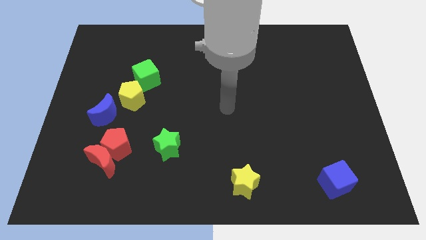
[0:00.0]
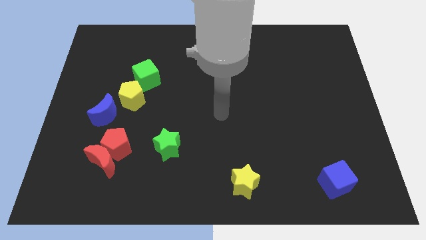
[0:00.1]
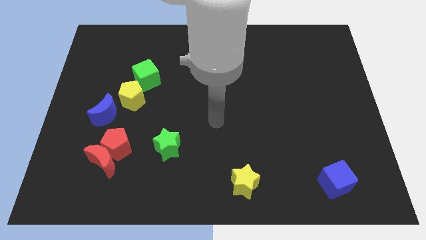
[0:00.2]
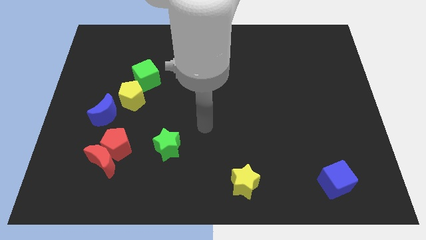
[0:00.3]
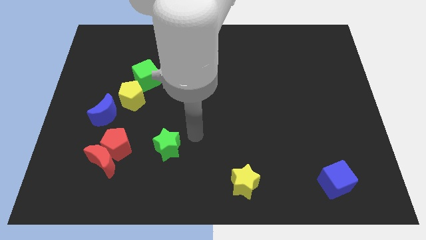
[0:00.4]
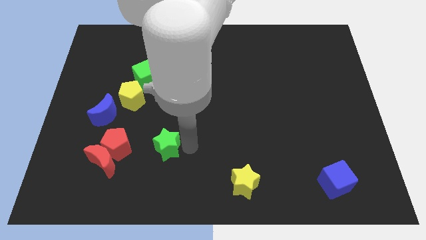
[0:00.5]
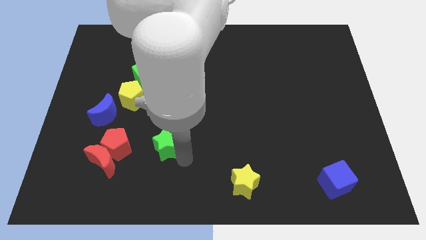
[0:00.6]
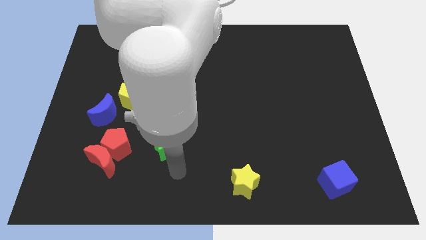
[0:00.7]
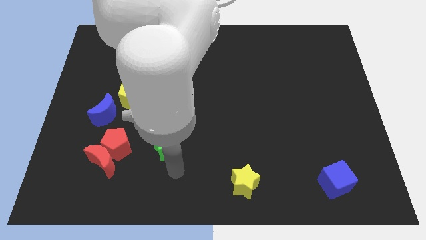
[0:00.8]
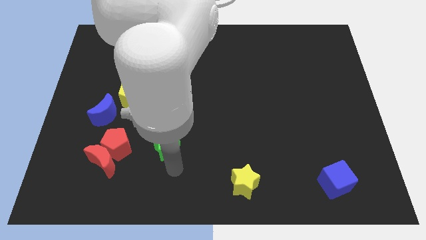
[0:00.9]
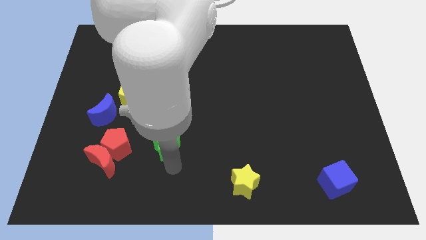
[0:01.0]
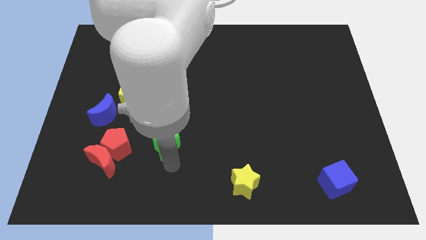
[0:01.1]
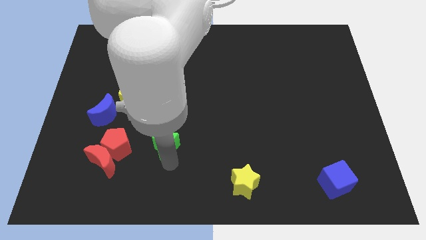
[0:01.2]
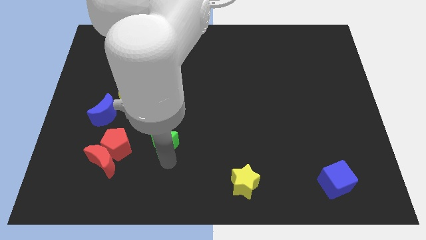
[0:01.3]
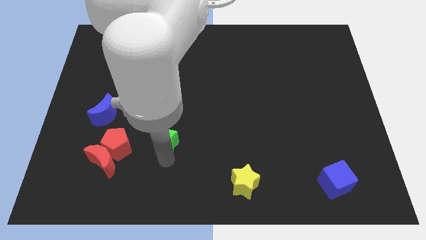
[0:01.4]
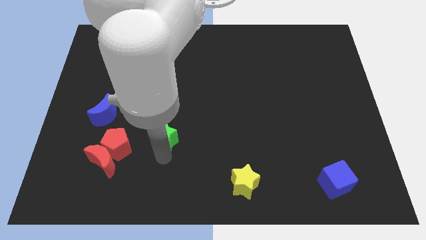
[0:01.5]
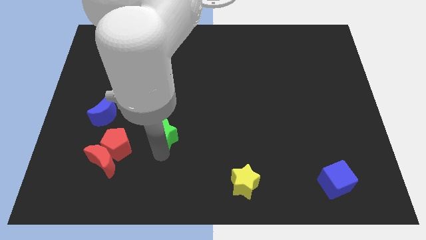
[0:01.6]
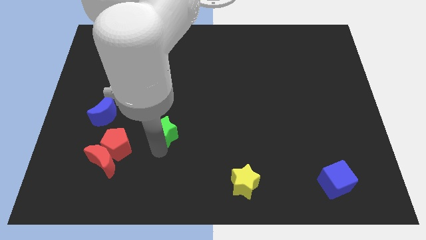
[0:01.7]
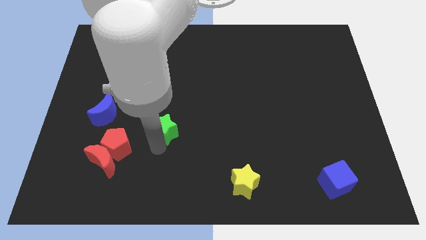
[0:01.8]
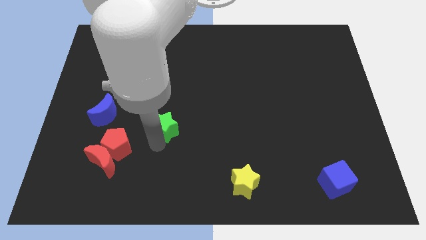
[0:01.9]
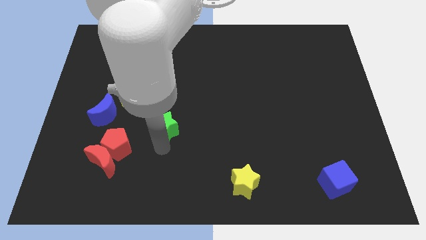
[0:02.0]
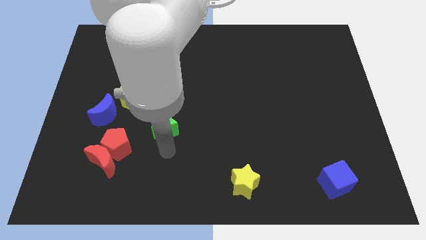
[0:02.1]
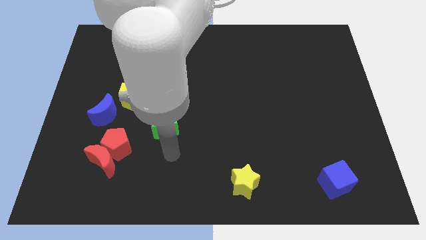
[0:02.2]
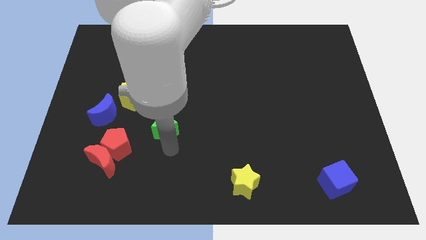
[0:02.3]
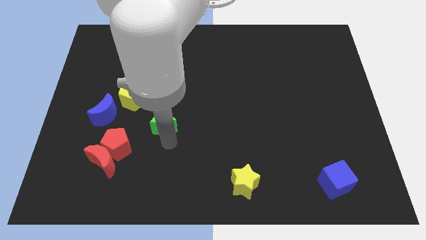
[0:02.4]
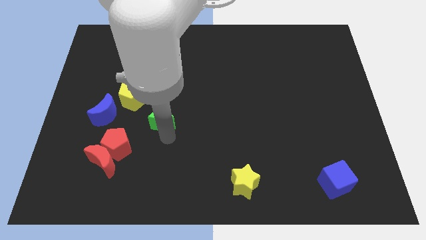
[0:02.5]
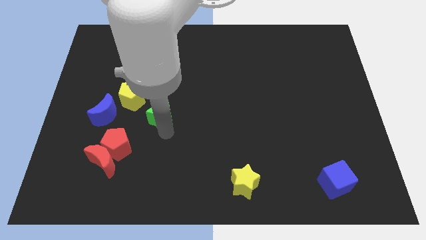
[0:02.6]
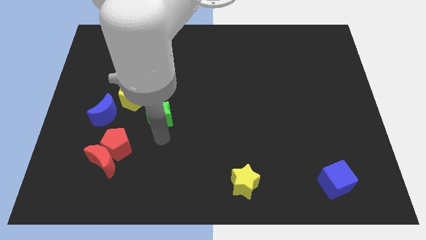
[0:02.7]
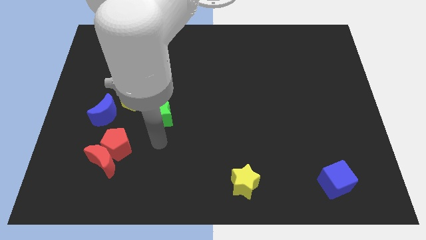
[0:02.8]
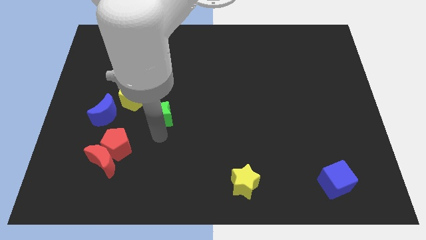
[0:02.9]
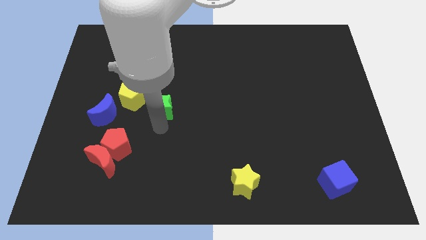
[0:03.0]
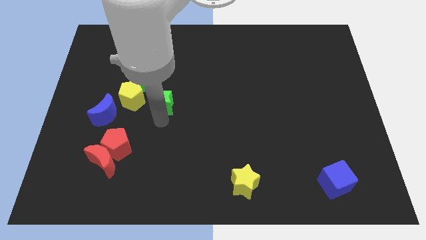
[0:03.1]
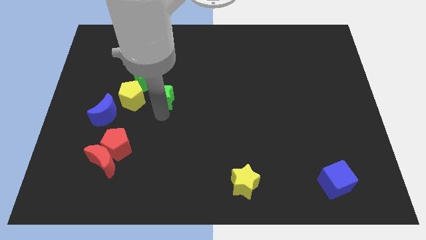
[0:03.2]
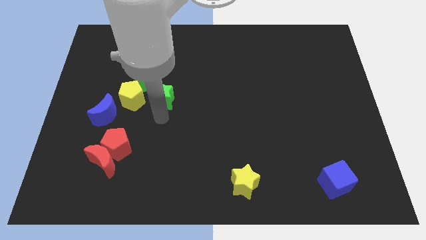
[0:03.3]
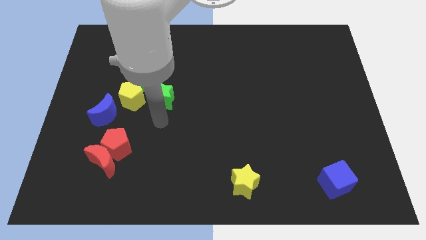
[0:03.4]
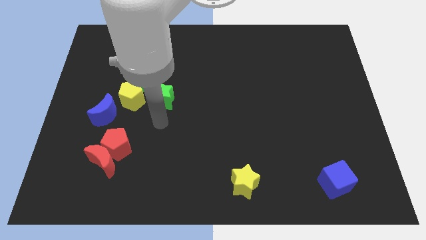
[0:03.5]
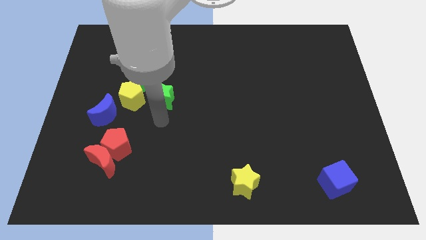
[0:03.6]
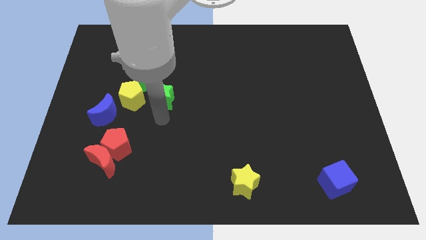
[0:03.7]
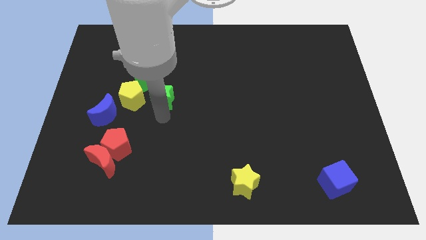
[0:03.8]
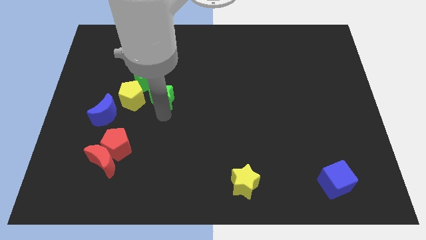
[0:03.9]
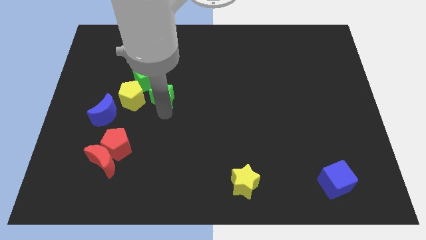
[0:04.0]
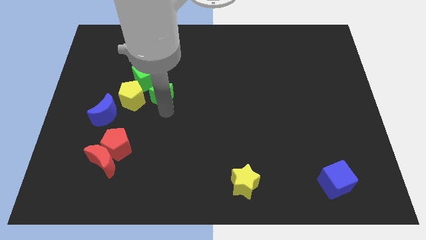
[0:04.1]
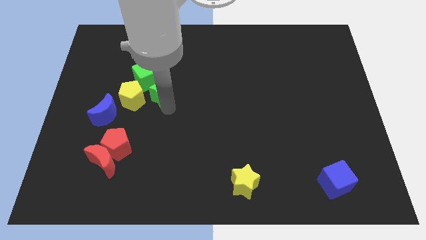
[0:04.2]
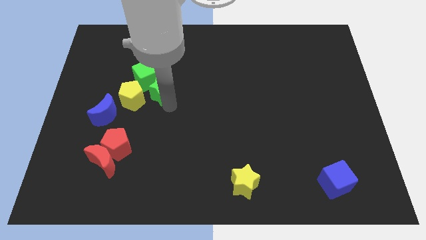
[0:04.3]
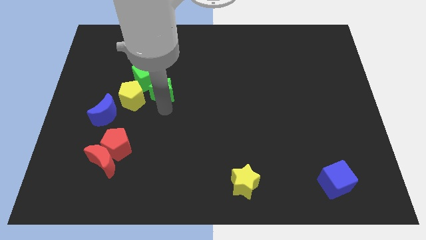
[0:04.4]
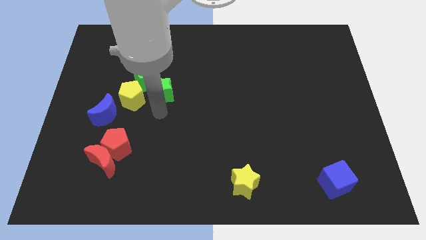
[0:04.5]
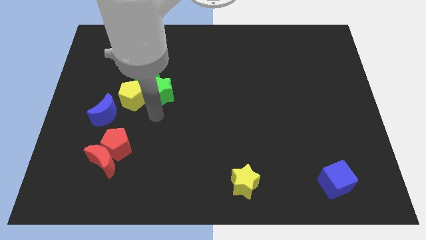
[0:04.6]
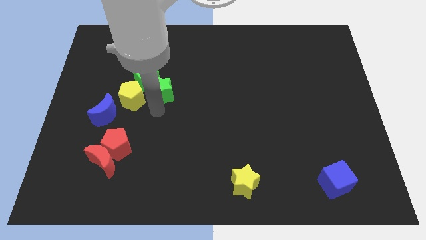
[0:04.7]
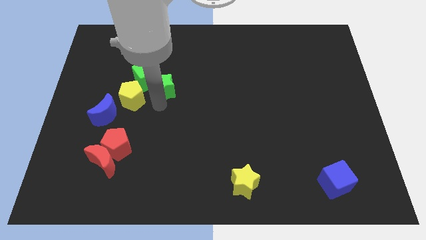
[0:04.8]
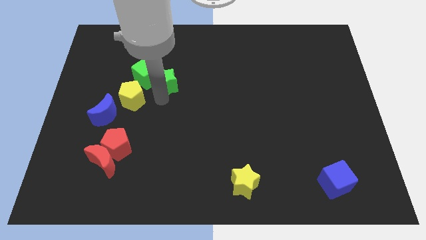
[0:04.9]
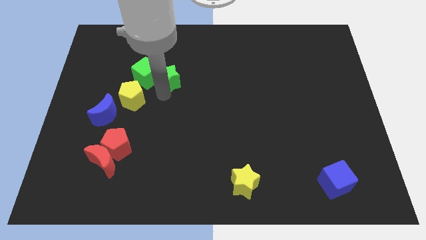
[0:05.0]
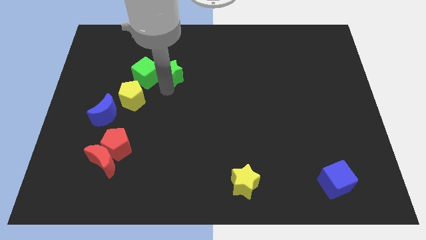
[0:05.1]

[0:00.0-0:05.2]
put the green star to the top right of the green cube

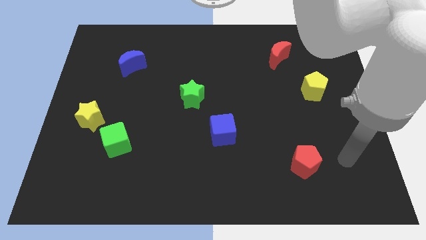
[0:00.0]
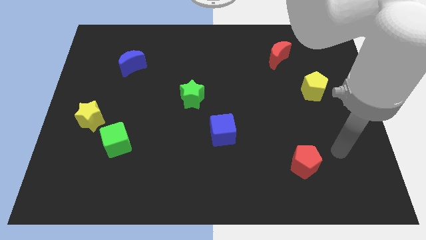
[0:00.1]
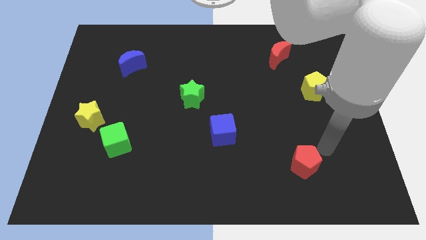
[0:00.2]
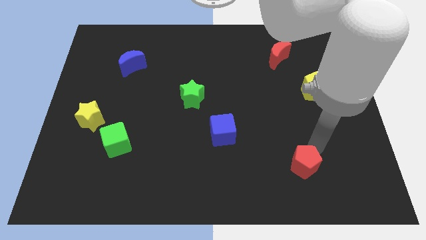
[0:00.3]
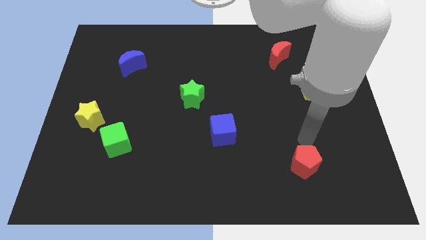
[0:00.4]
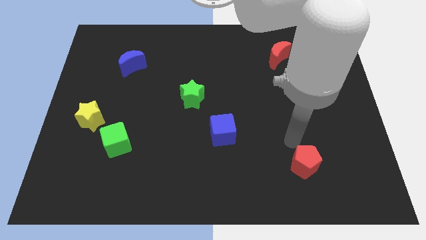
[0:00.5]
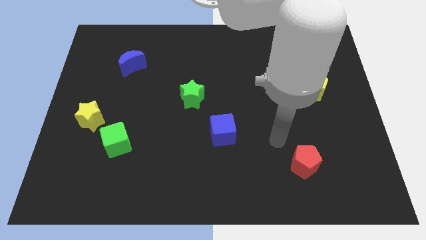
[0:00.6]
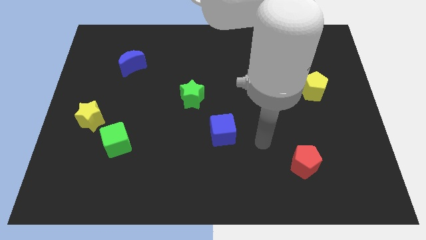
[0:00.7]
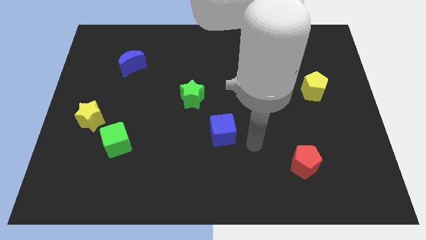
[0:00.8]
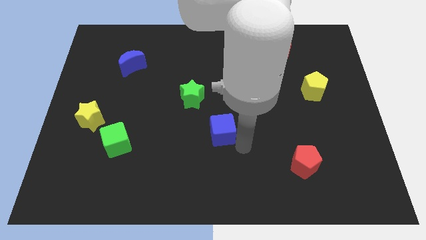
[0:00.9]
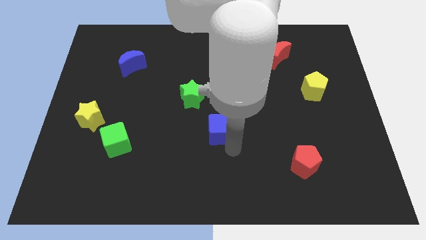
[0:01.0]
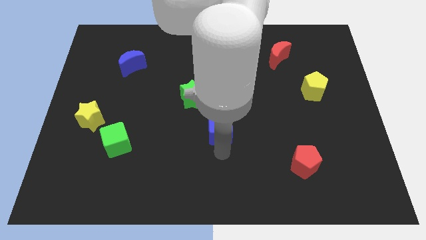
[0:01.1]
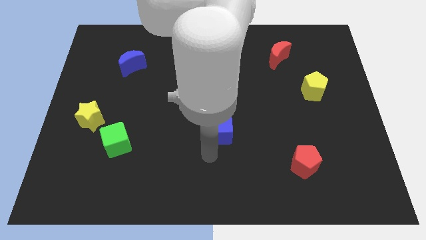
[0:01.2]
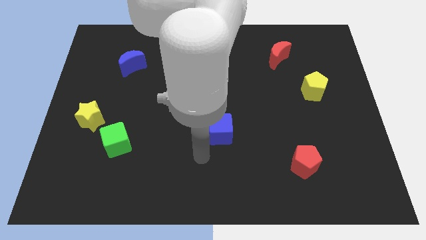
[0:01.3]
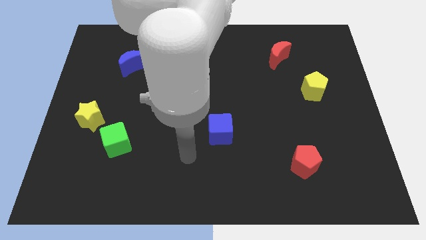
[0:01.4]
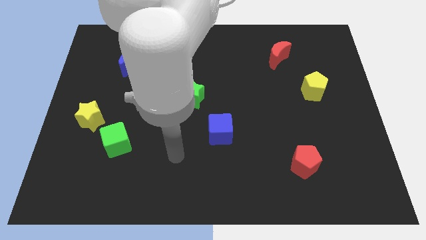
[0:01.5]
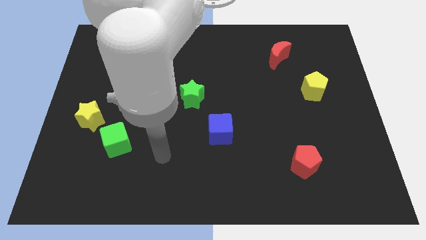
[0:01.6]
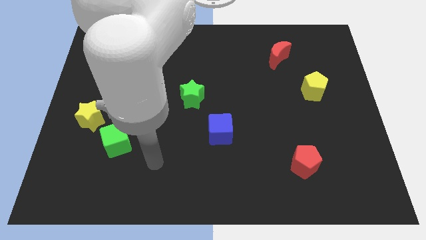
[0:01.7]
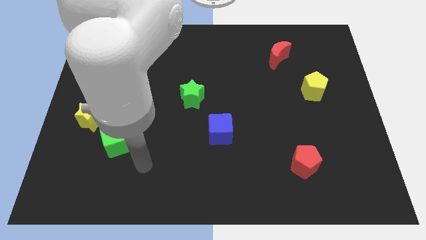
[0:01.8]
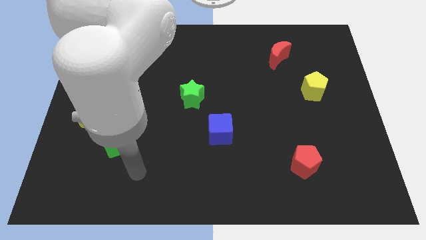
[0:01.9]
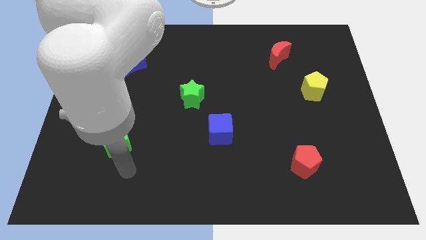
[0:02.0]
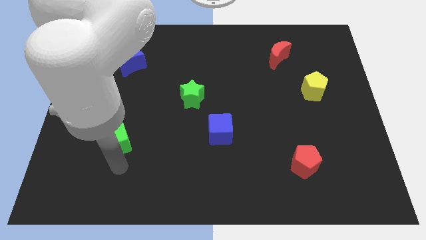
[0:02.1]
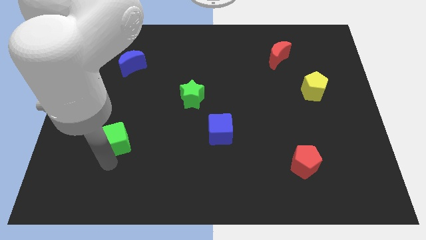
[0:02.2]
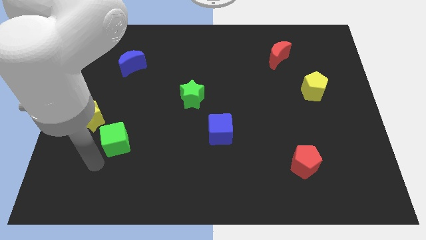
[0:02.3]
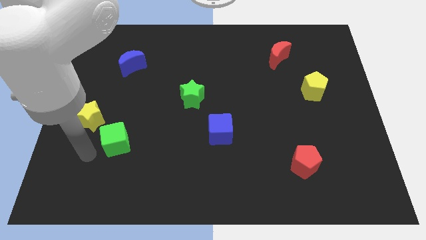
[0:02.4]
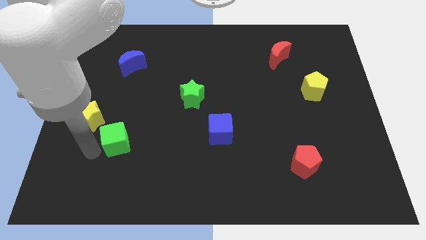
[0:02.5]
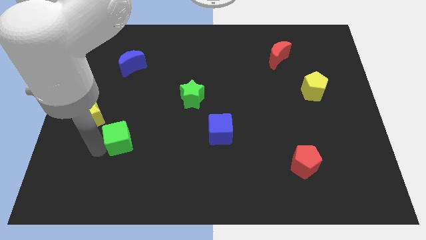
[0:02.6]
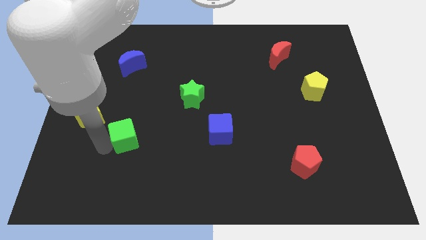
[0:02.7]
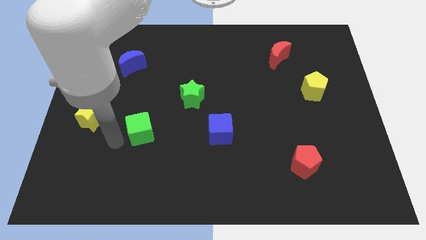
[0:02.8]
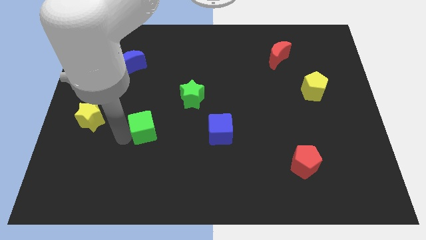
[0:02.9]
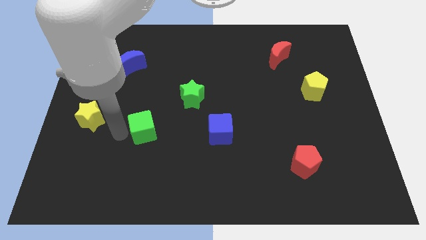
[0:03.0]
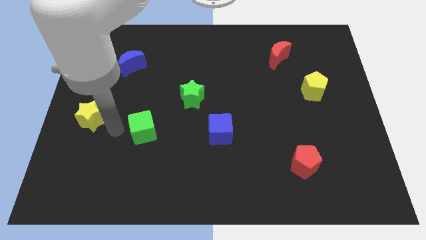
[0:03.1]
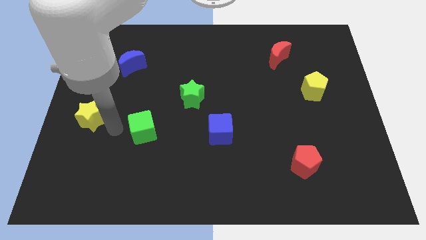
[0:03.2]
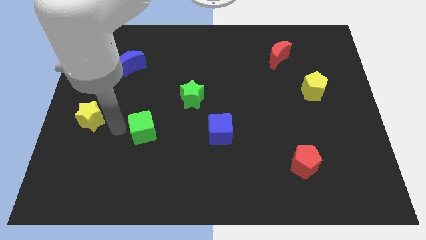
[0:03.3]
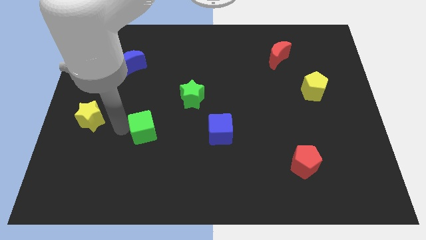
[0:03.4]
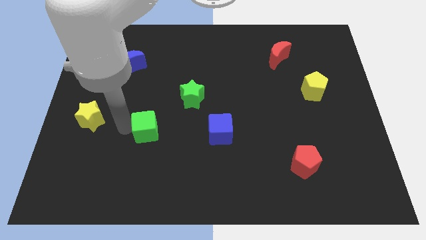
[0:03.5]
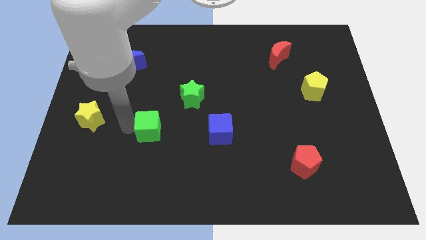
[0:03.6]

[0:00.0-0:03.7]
push the green cube just left of the blue cube
